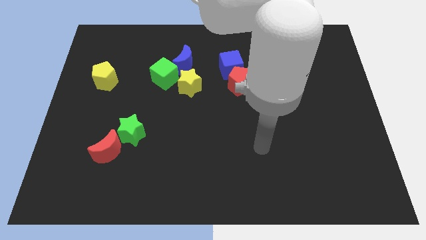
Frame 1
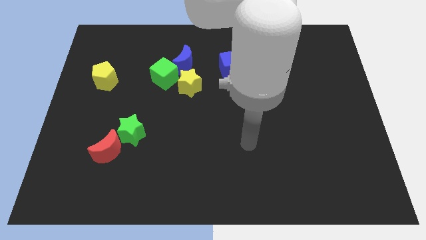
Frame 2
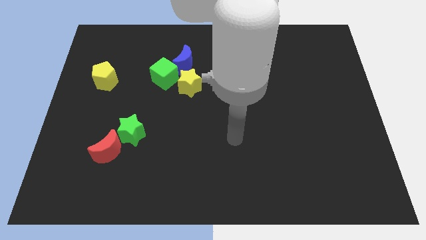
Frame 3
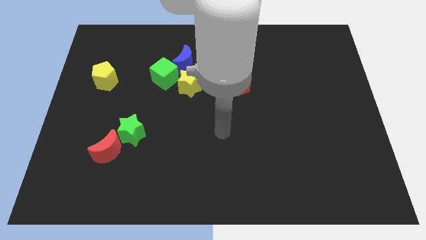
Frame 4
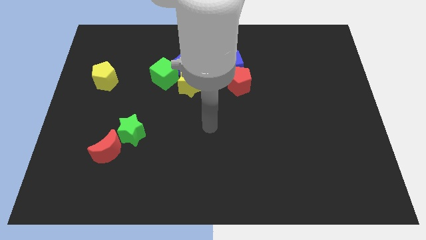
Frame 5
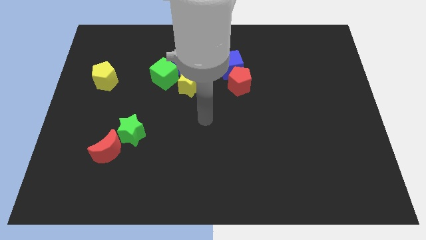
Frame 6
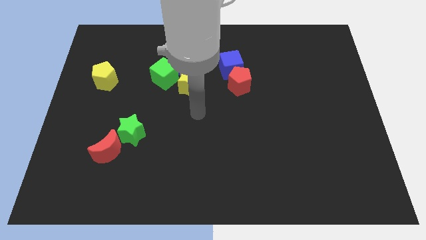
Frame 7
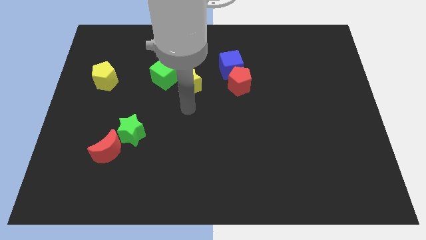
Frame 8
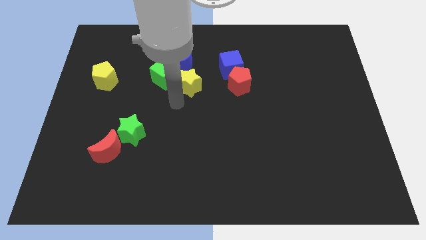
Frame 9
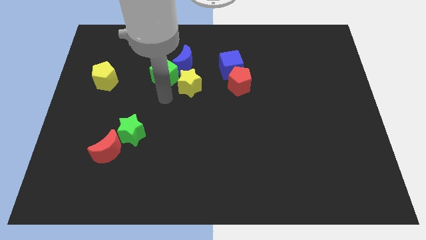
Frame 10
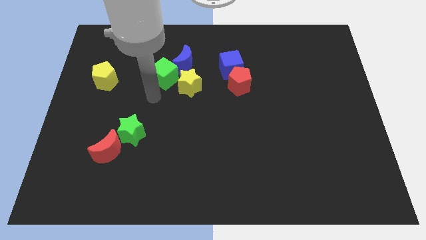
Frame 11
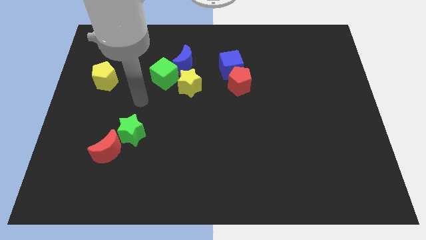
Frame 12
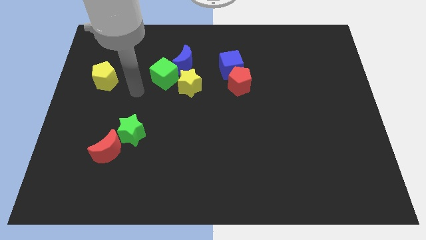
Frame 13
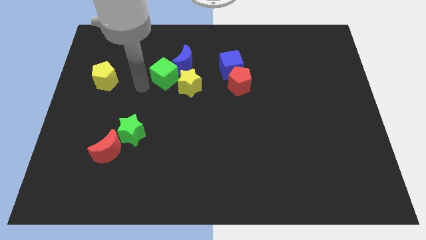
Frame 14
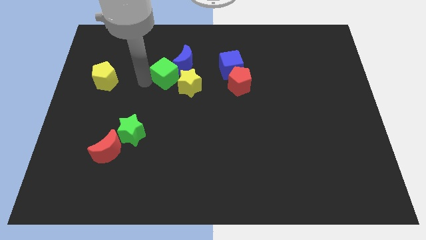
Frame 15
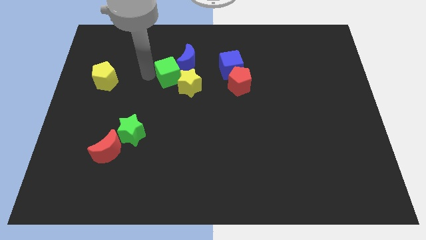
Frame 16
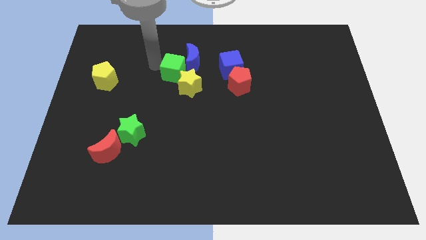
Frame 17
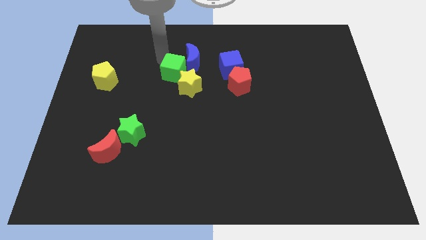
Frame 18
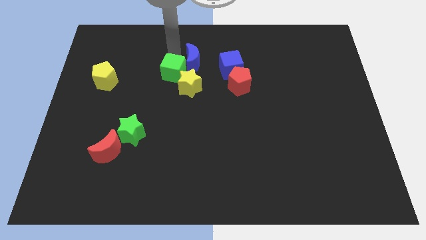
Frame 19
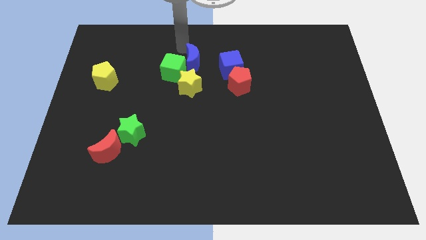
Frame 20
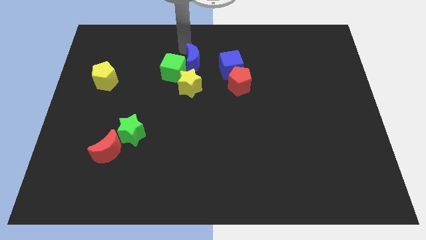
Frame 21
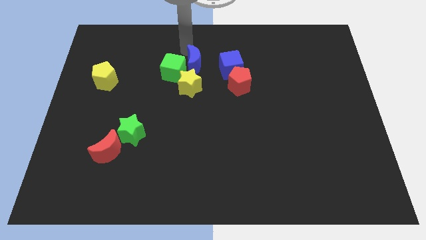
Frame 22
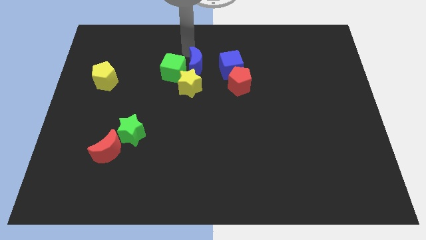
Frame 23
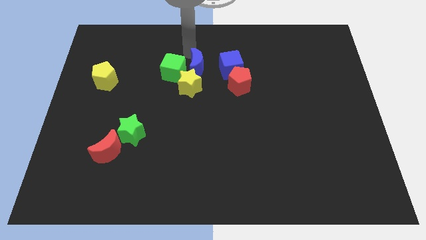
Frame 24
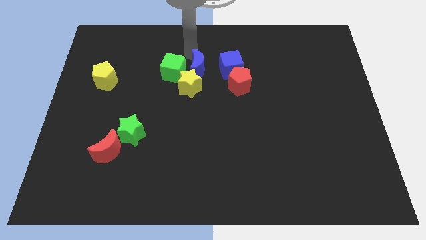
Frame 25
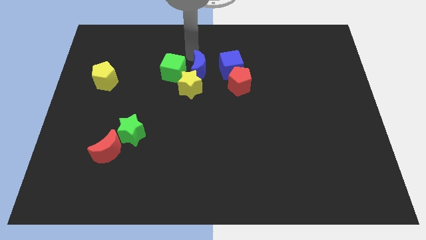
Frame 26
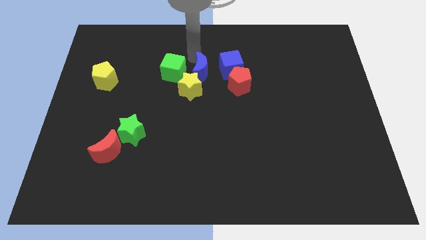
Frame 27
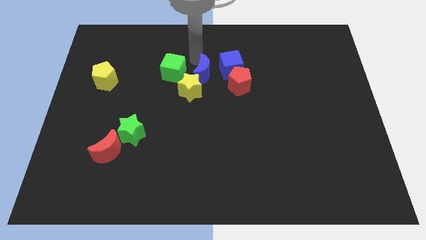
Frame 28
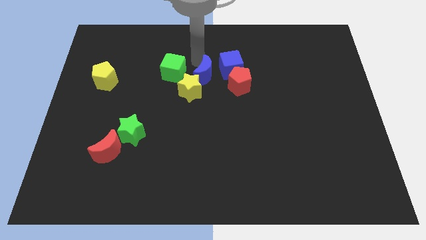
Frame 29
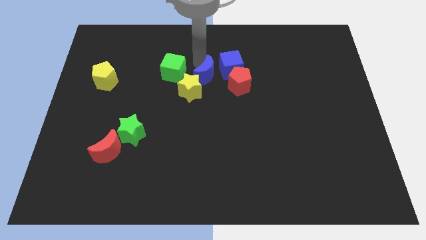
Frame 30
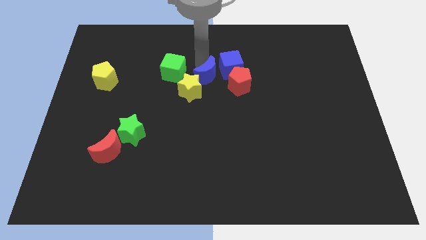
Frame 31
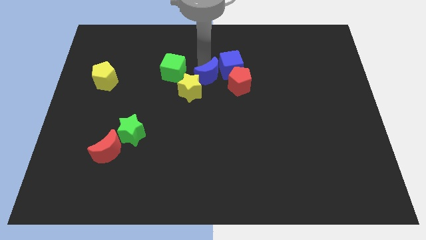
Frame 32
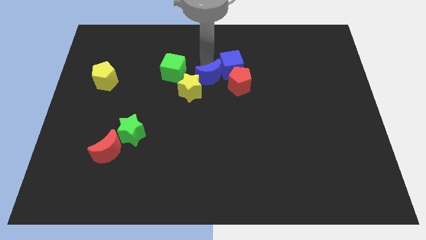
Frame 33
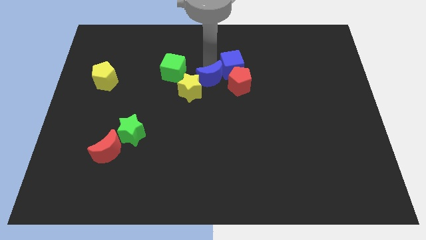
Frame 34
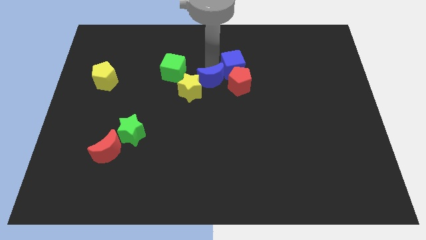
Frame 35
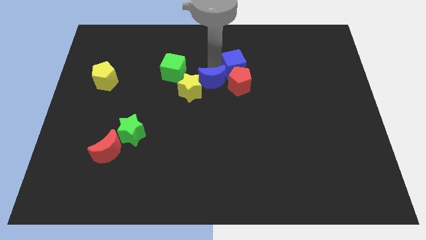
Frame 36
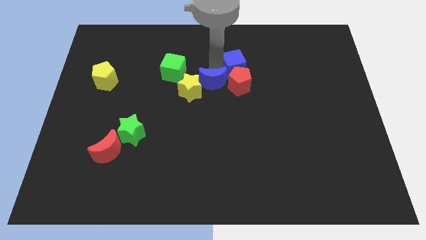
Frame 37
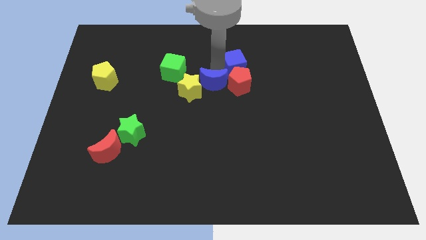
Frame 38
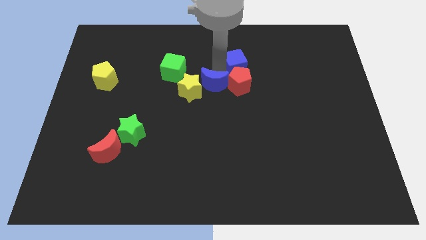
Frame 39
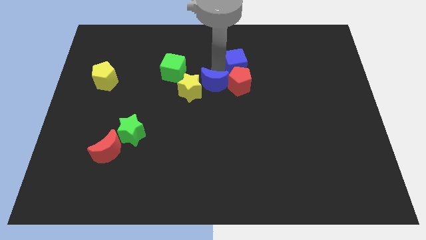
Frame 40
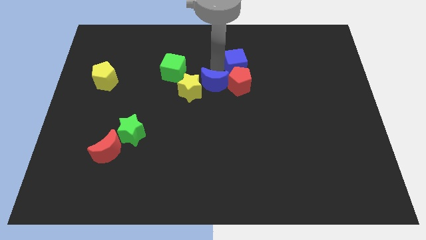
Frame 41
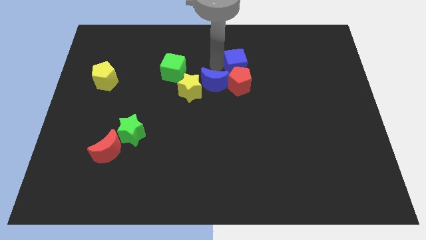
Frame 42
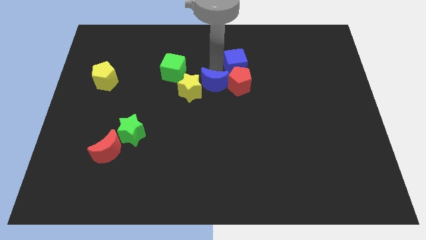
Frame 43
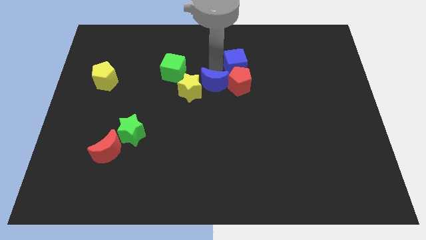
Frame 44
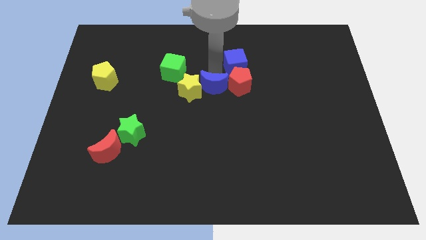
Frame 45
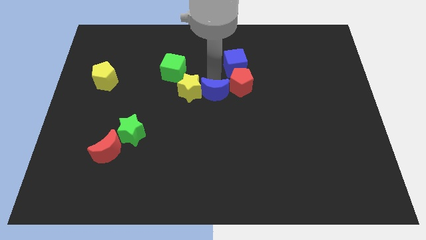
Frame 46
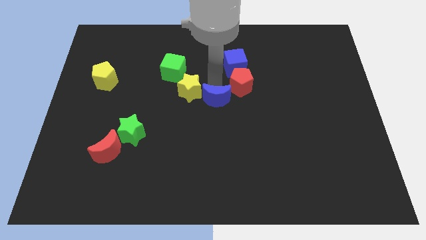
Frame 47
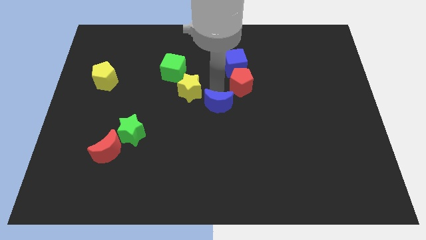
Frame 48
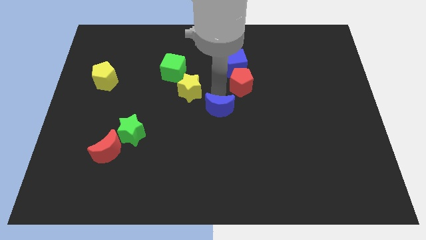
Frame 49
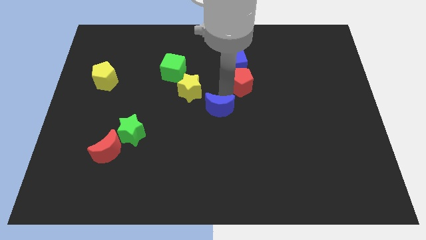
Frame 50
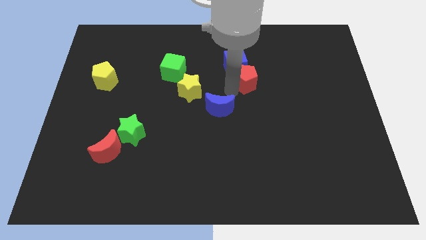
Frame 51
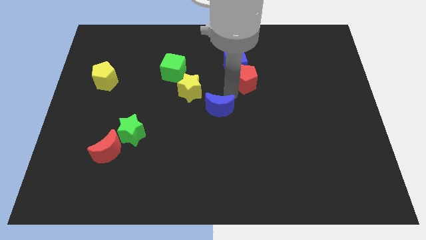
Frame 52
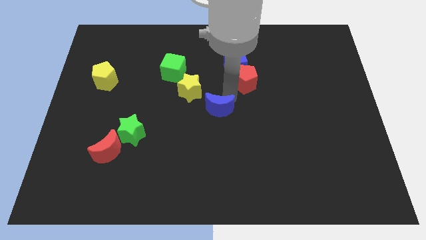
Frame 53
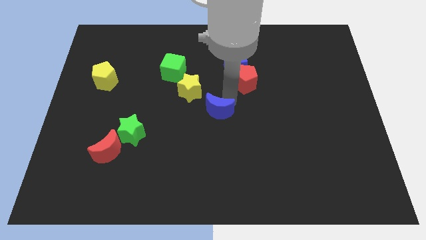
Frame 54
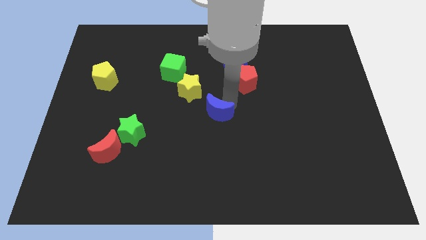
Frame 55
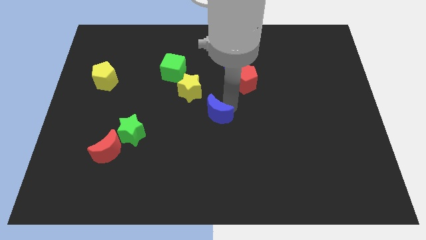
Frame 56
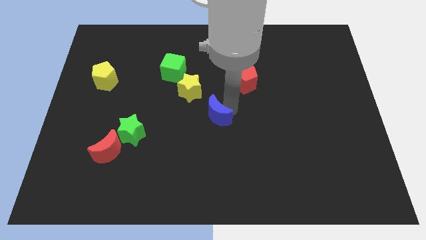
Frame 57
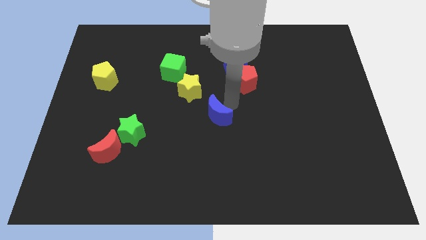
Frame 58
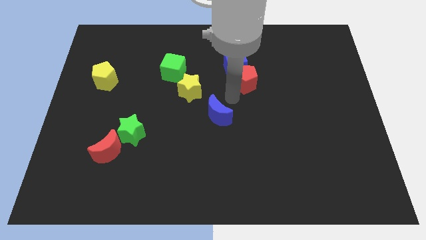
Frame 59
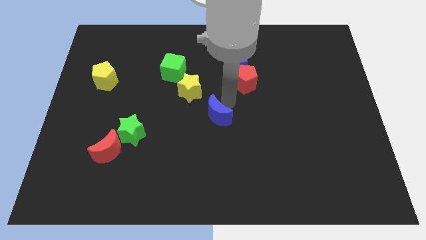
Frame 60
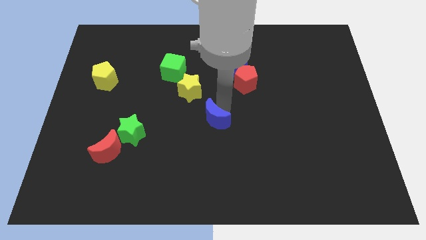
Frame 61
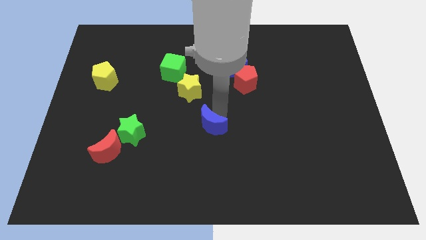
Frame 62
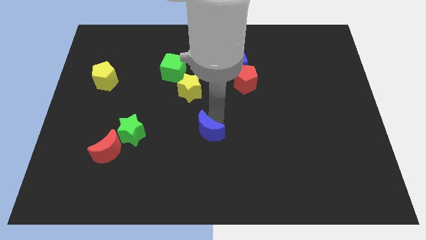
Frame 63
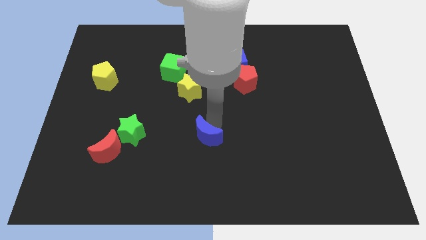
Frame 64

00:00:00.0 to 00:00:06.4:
slide the blue moon down

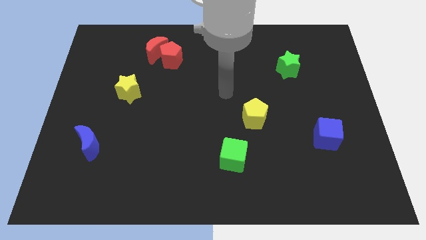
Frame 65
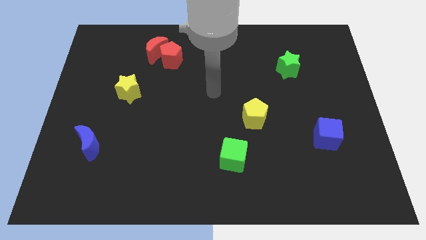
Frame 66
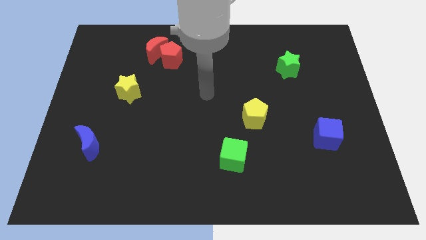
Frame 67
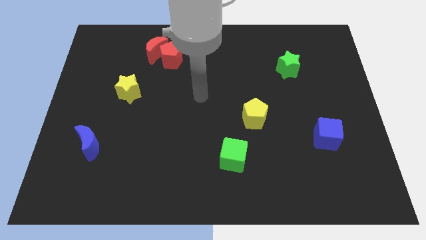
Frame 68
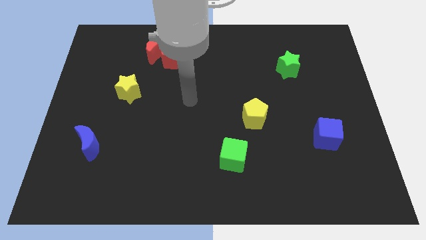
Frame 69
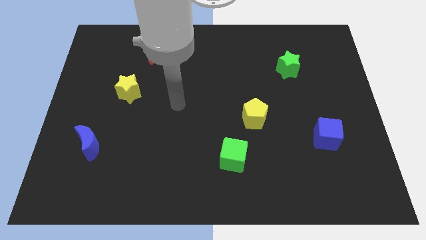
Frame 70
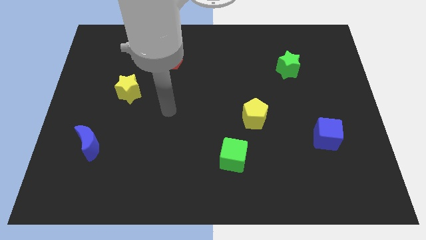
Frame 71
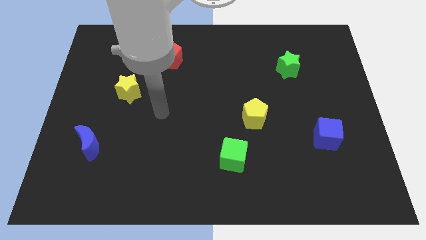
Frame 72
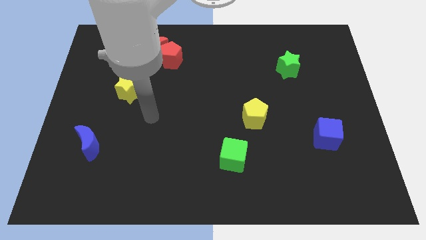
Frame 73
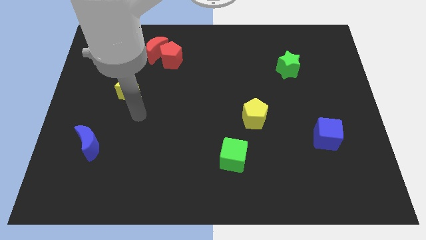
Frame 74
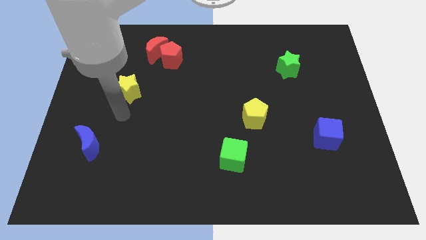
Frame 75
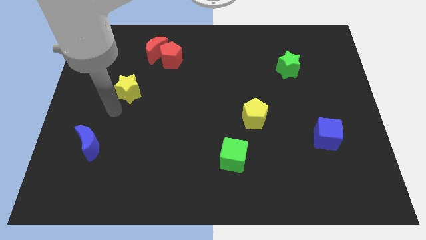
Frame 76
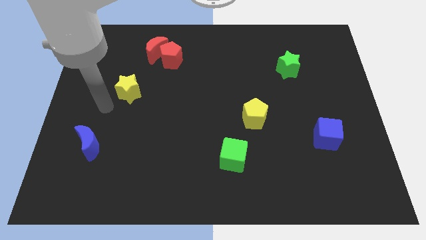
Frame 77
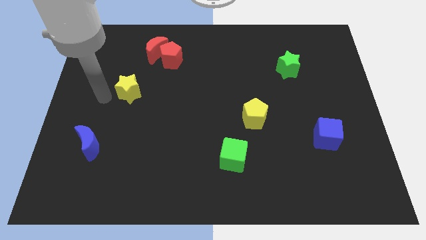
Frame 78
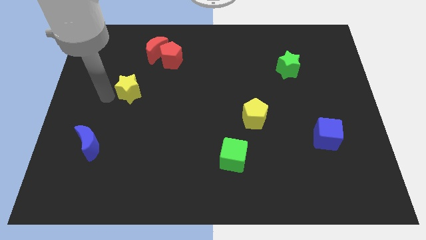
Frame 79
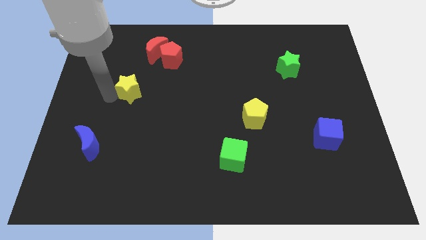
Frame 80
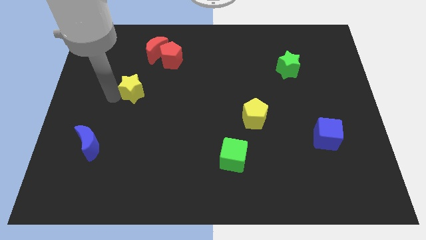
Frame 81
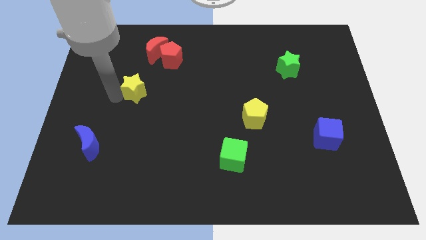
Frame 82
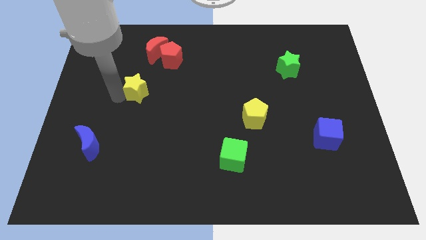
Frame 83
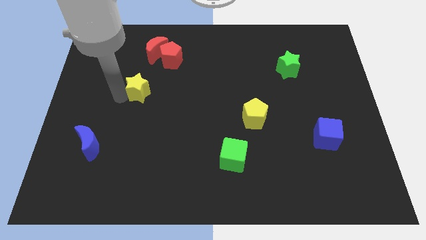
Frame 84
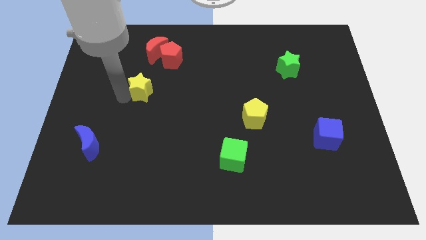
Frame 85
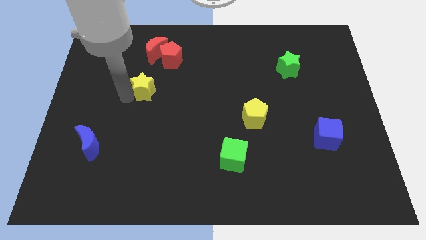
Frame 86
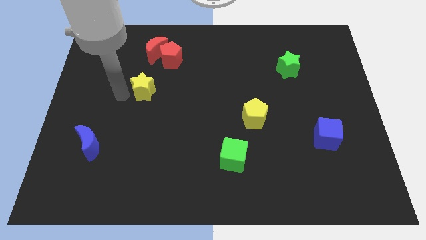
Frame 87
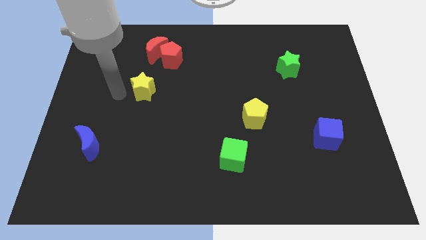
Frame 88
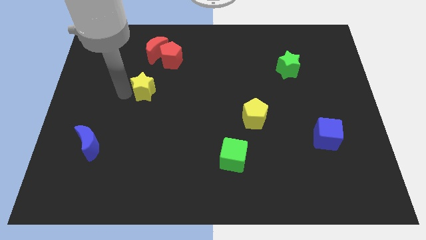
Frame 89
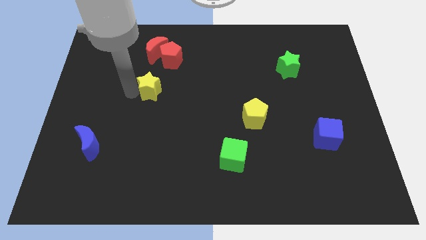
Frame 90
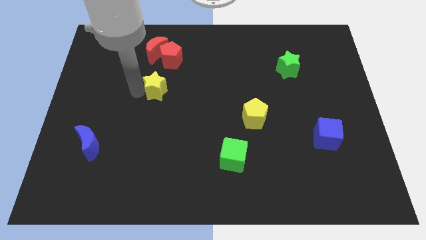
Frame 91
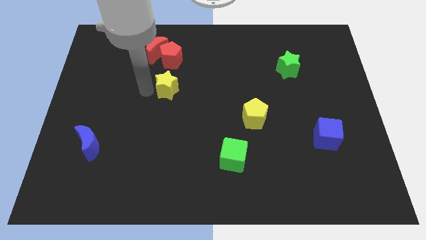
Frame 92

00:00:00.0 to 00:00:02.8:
push the yellow star to the right somewhat
